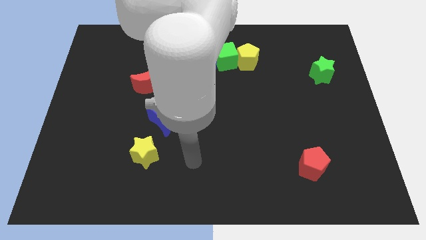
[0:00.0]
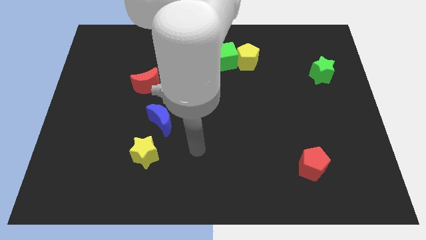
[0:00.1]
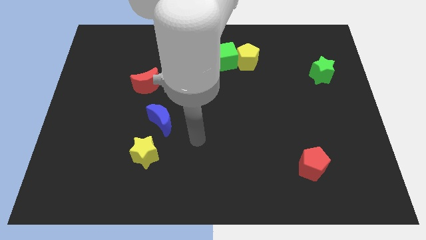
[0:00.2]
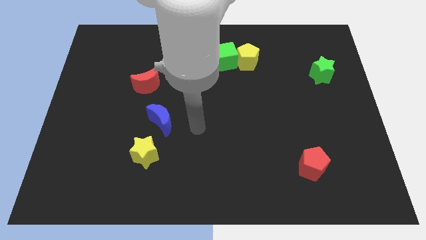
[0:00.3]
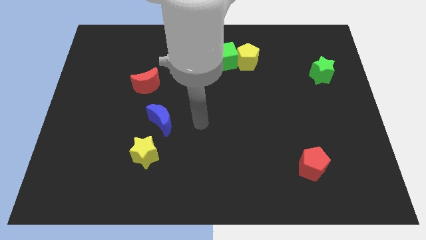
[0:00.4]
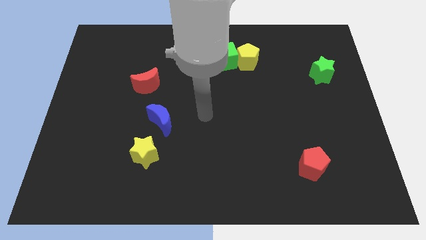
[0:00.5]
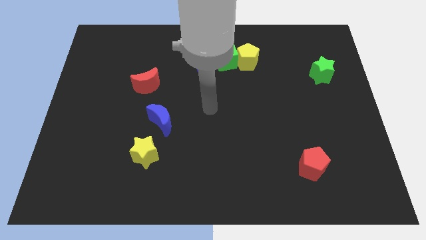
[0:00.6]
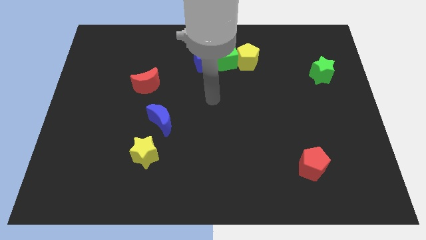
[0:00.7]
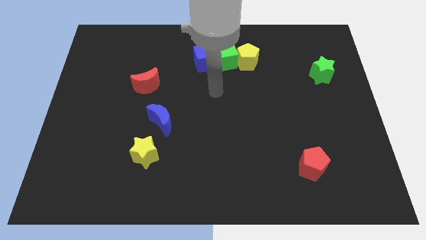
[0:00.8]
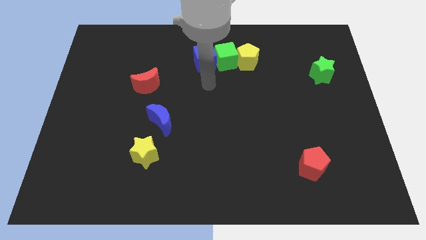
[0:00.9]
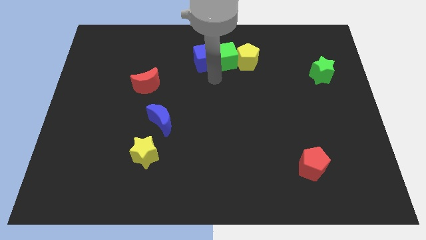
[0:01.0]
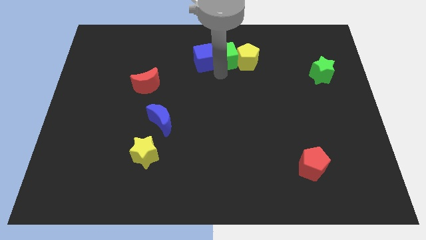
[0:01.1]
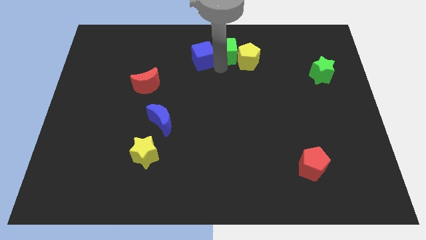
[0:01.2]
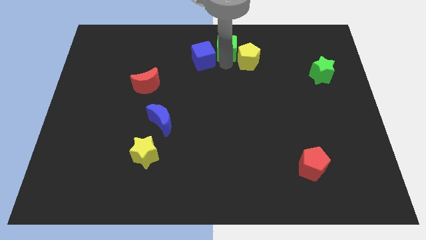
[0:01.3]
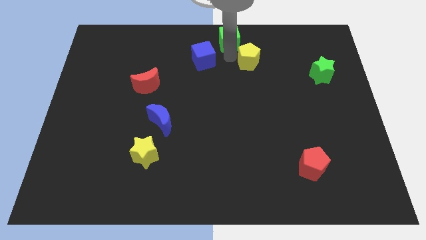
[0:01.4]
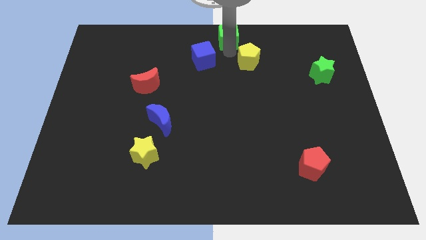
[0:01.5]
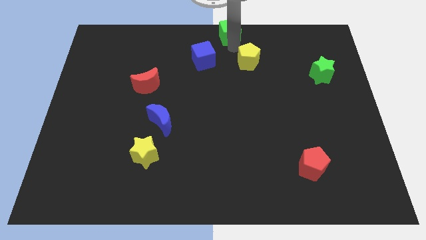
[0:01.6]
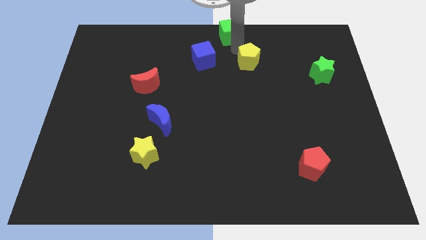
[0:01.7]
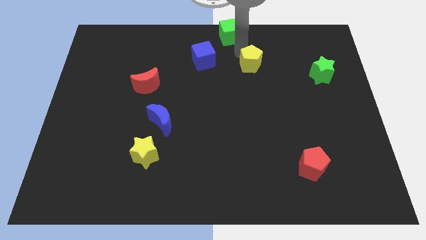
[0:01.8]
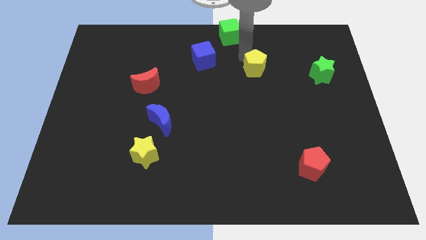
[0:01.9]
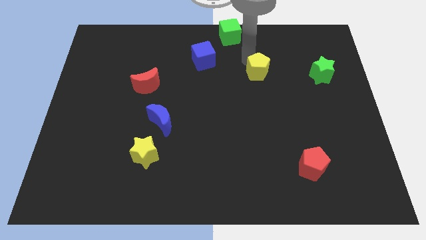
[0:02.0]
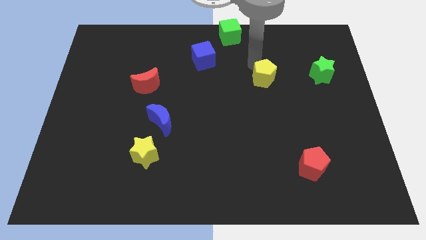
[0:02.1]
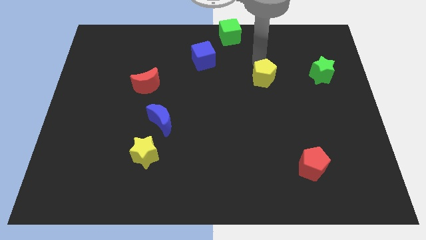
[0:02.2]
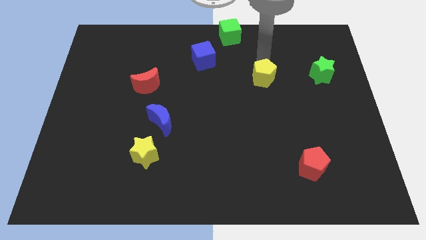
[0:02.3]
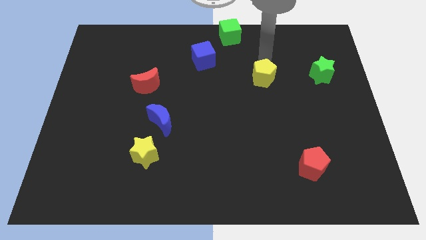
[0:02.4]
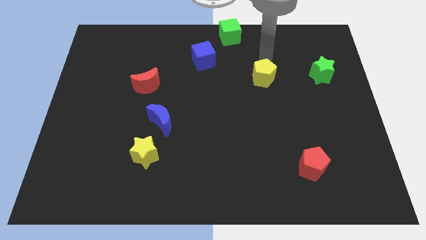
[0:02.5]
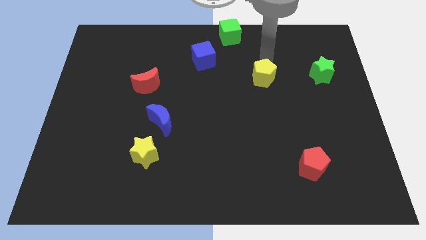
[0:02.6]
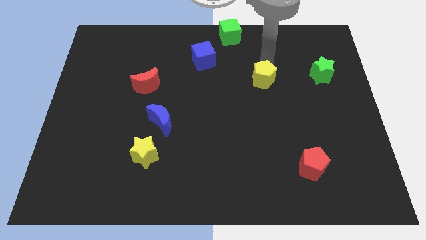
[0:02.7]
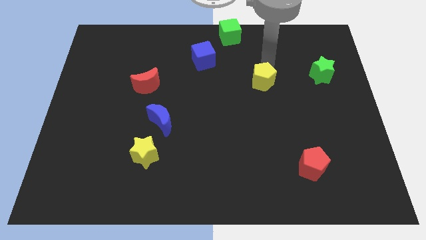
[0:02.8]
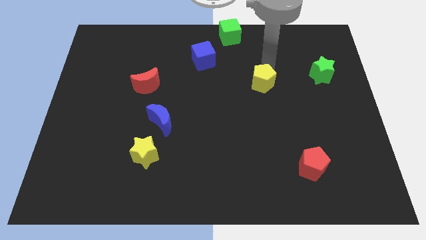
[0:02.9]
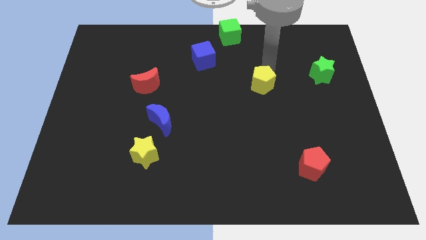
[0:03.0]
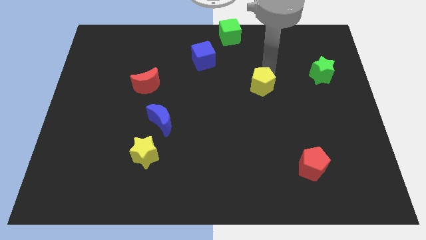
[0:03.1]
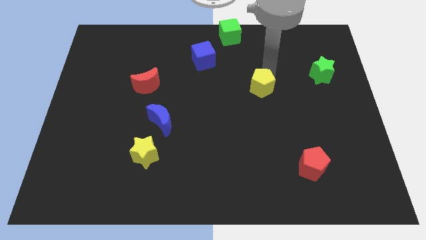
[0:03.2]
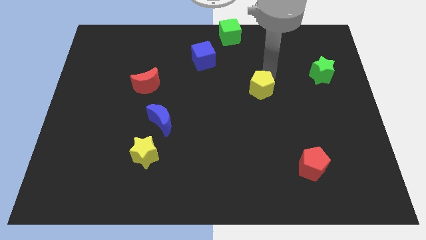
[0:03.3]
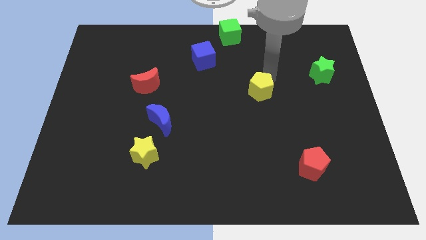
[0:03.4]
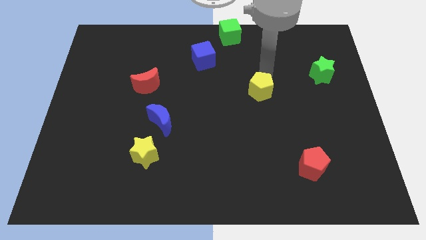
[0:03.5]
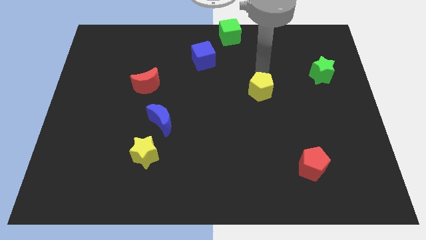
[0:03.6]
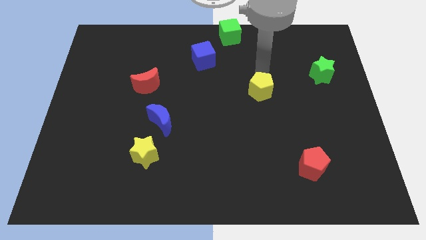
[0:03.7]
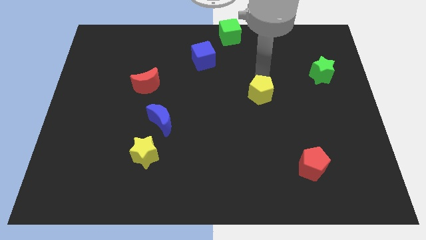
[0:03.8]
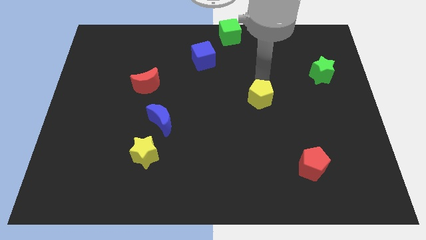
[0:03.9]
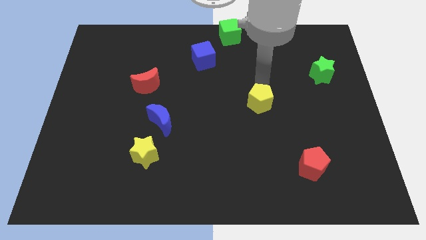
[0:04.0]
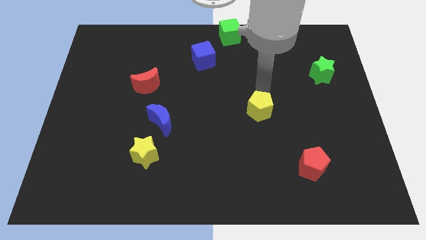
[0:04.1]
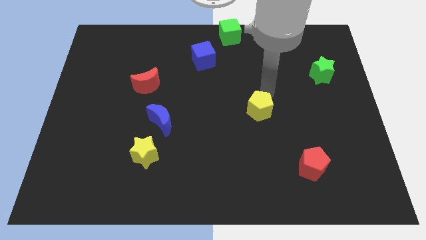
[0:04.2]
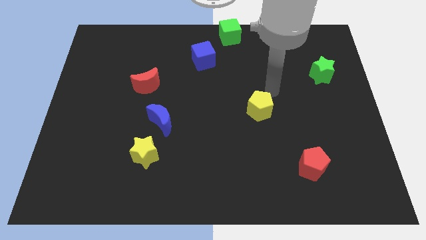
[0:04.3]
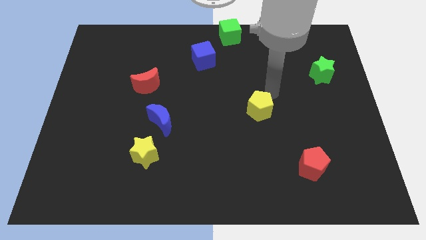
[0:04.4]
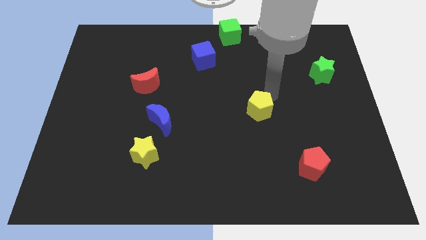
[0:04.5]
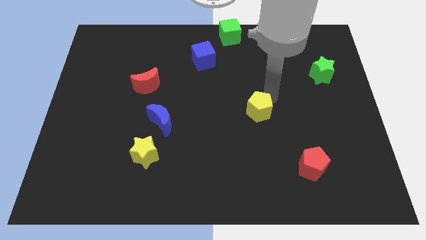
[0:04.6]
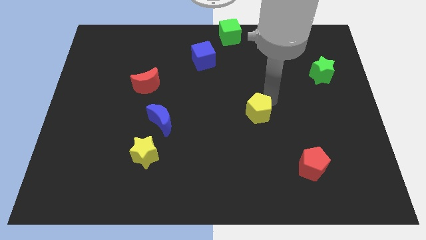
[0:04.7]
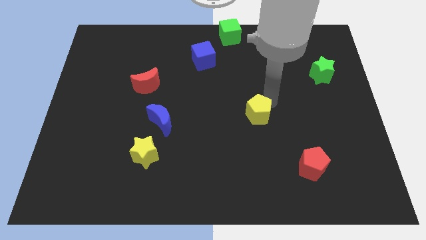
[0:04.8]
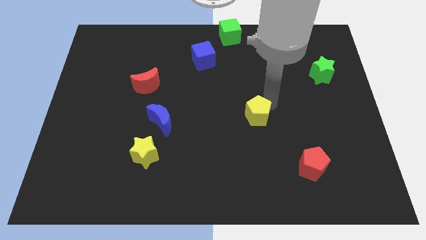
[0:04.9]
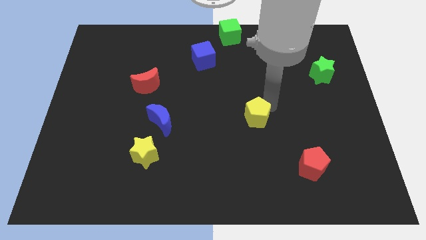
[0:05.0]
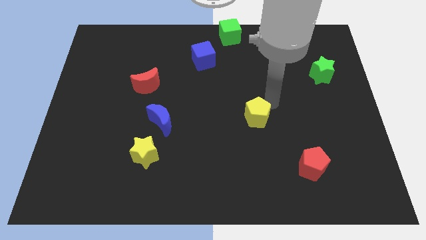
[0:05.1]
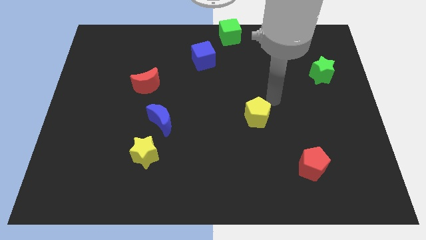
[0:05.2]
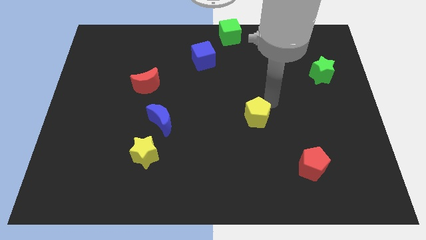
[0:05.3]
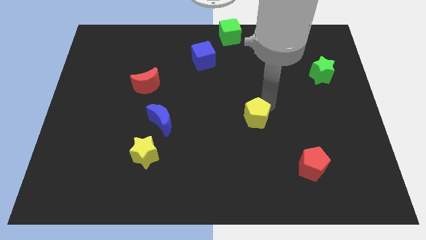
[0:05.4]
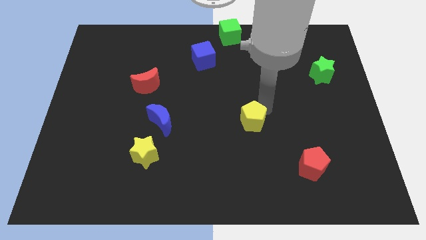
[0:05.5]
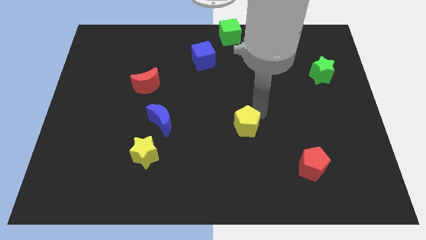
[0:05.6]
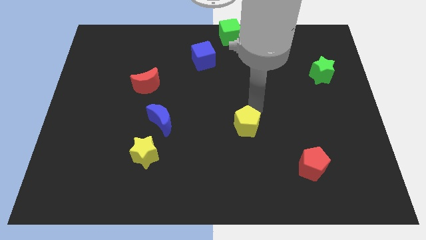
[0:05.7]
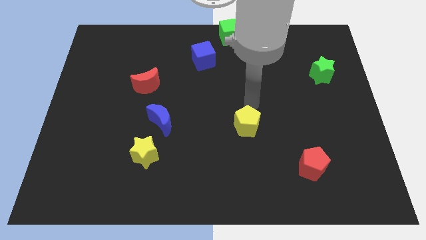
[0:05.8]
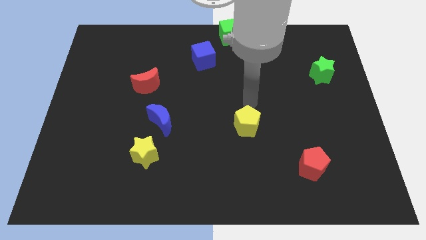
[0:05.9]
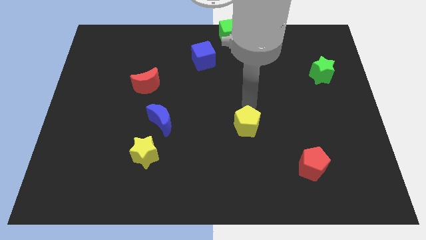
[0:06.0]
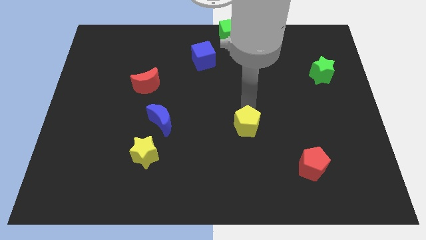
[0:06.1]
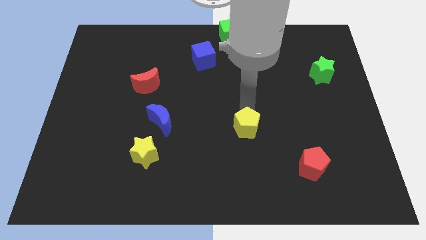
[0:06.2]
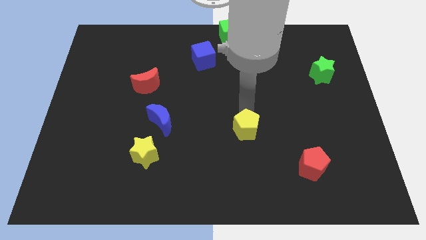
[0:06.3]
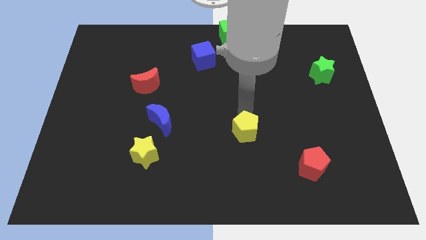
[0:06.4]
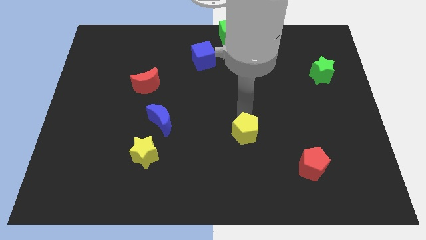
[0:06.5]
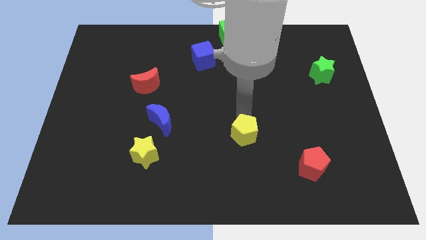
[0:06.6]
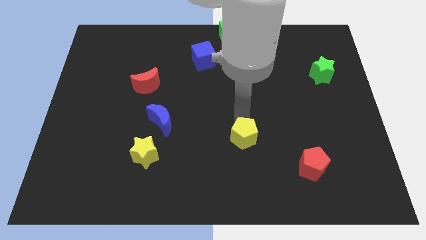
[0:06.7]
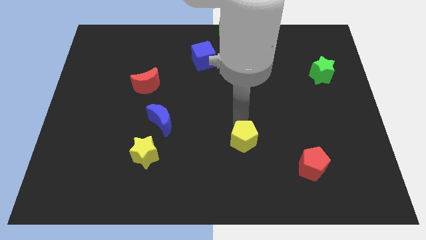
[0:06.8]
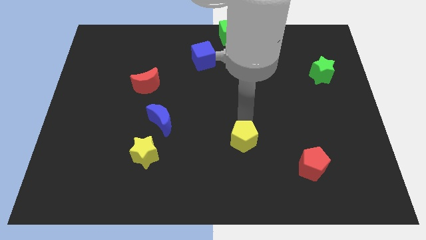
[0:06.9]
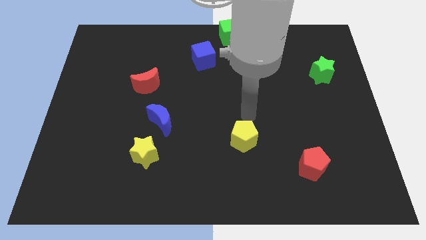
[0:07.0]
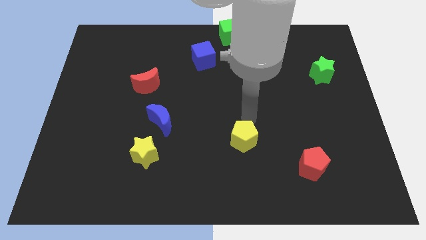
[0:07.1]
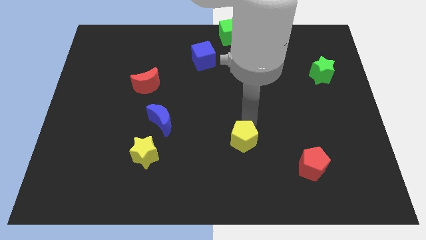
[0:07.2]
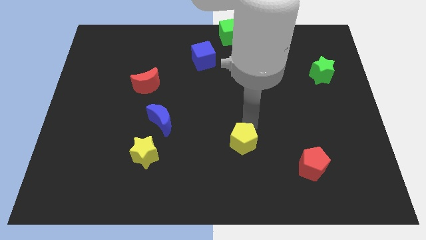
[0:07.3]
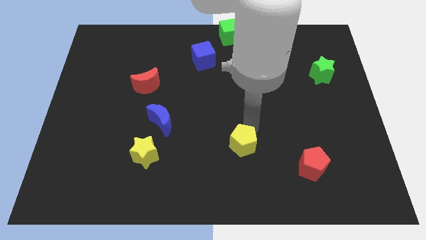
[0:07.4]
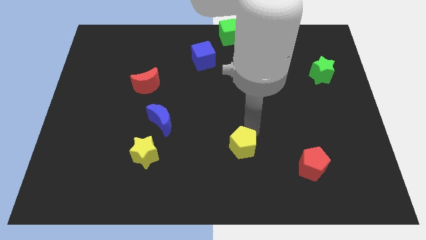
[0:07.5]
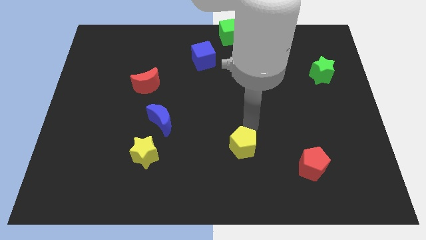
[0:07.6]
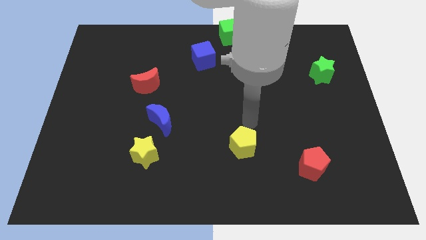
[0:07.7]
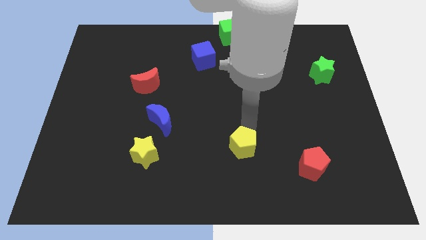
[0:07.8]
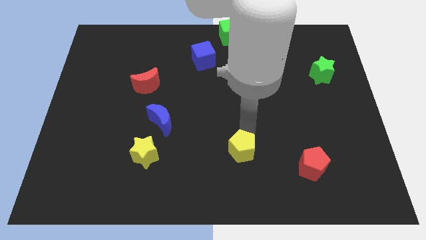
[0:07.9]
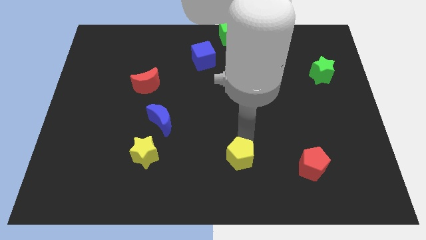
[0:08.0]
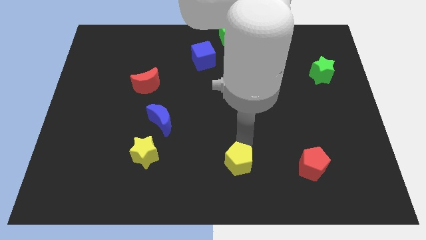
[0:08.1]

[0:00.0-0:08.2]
push the yellow pentagon to the bottom side
